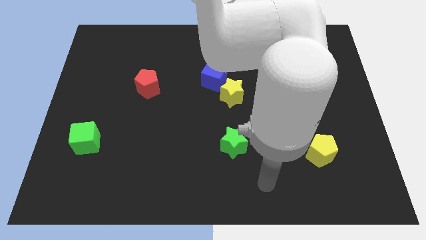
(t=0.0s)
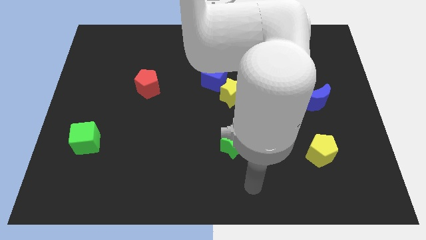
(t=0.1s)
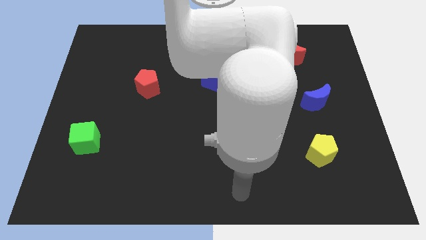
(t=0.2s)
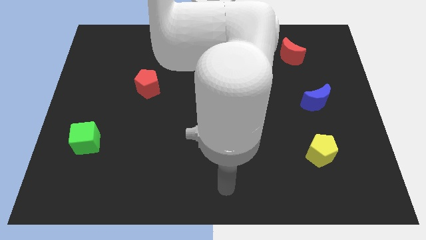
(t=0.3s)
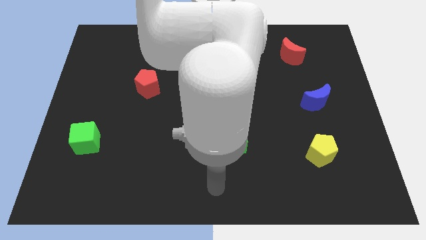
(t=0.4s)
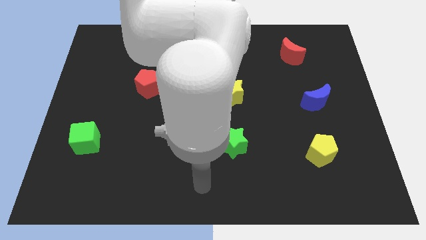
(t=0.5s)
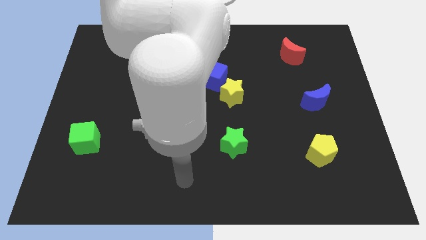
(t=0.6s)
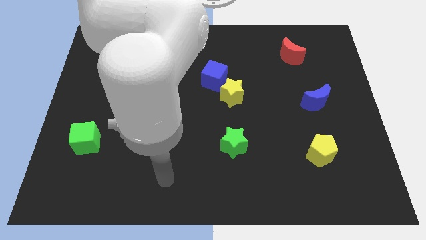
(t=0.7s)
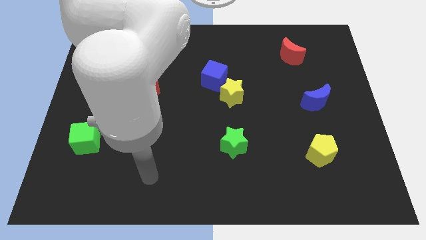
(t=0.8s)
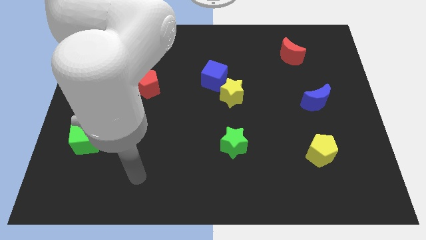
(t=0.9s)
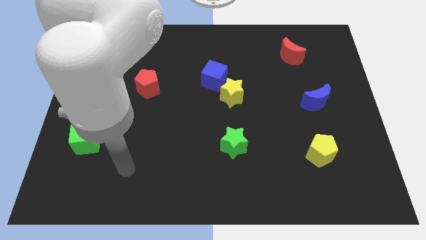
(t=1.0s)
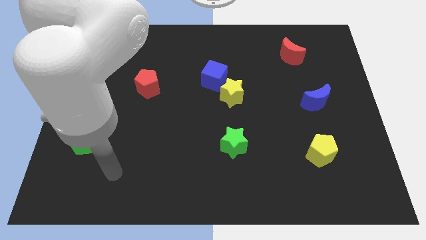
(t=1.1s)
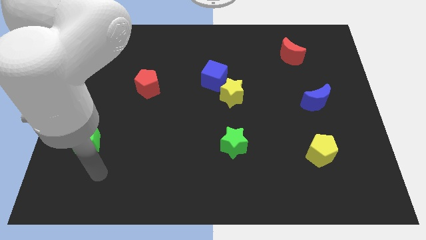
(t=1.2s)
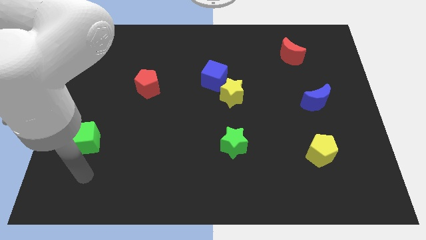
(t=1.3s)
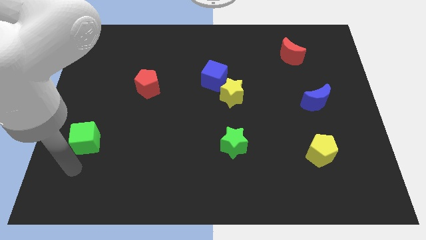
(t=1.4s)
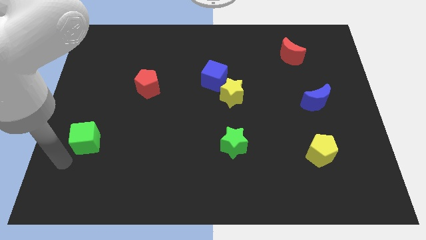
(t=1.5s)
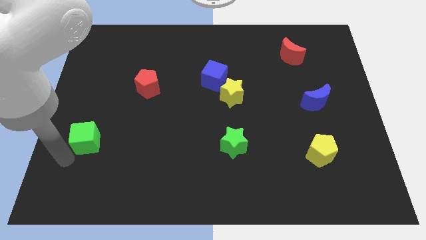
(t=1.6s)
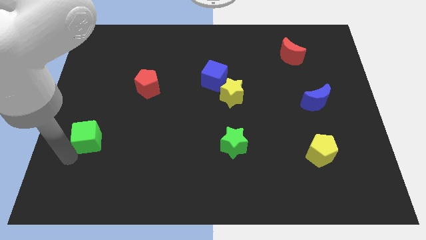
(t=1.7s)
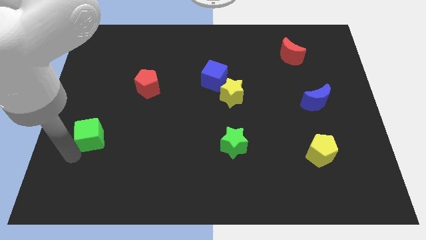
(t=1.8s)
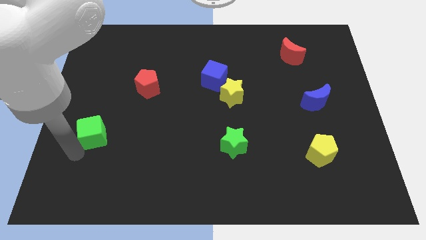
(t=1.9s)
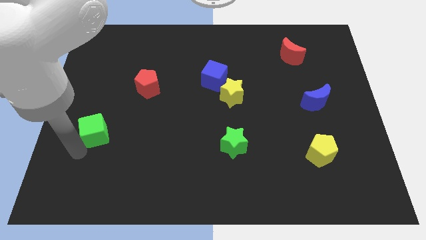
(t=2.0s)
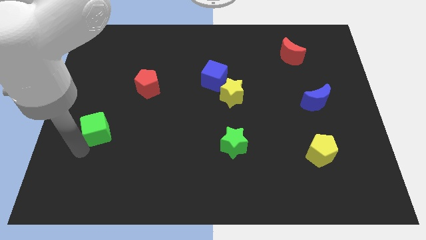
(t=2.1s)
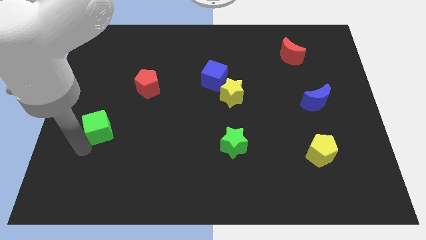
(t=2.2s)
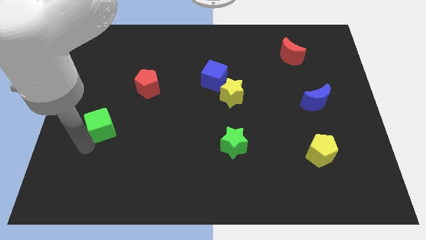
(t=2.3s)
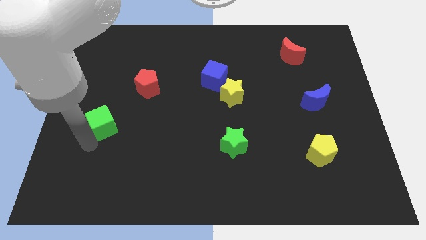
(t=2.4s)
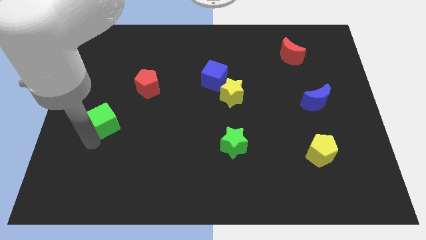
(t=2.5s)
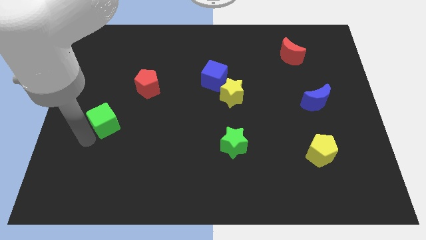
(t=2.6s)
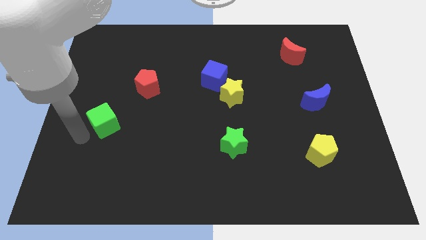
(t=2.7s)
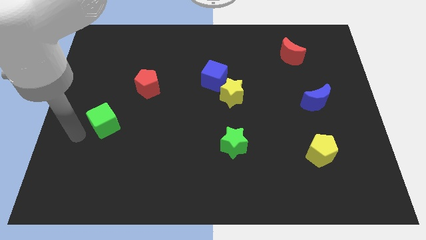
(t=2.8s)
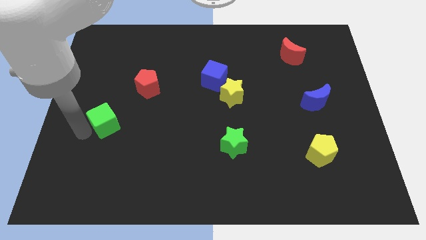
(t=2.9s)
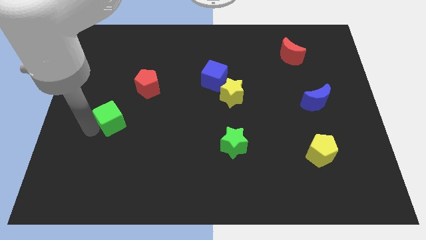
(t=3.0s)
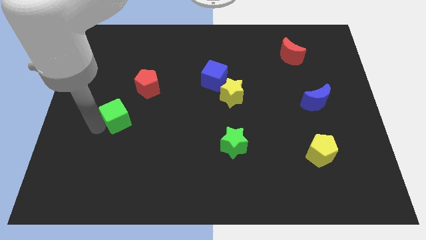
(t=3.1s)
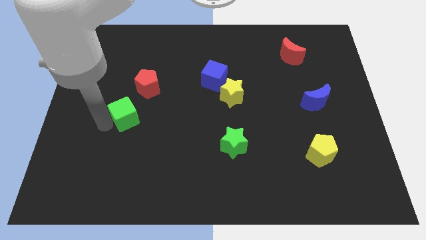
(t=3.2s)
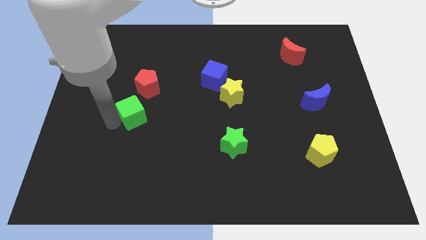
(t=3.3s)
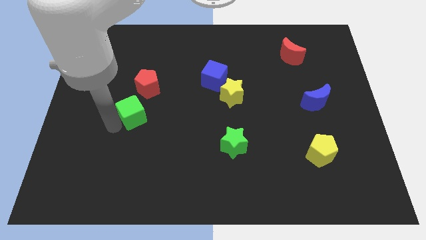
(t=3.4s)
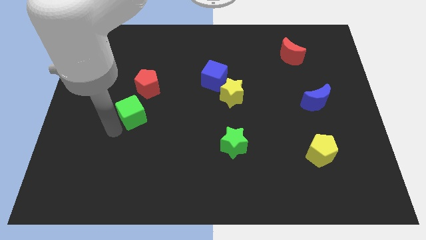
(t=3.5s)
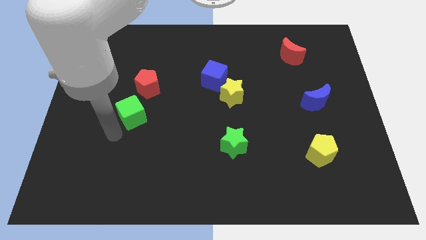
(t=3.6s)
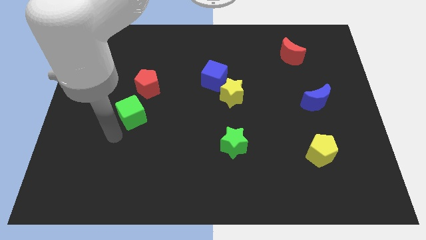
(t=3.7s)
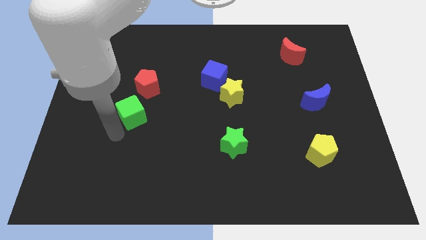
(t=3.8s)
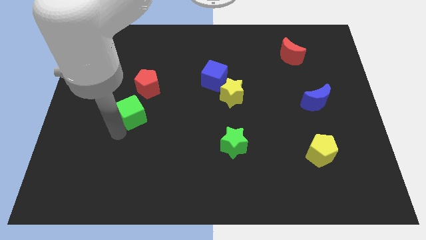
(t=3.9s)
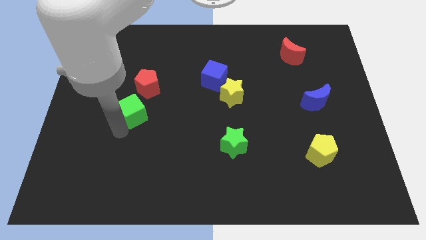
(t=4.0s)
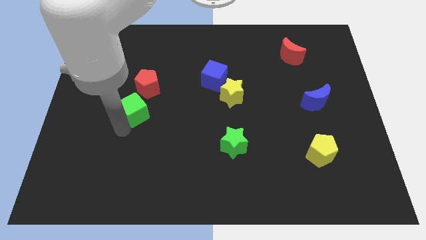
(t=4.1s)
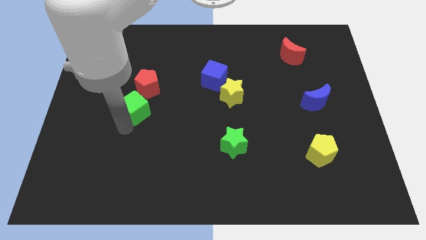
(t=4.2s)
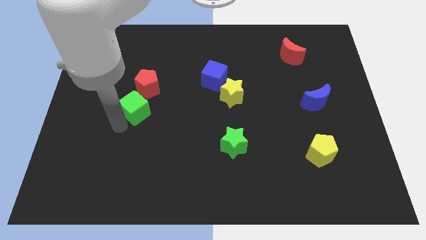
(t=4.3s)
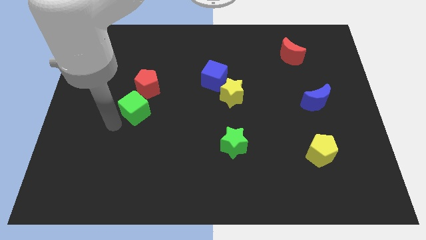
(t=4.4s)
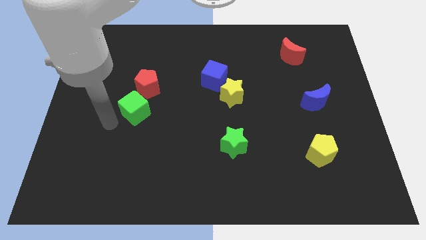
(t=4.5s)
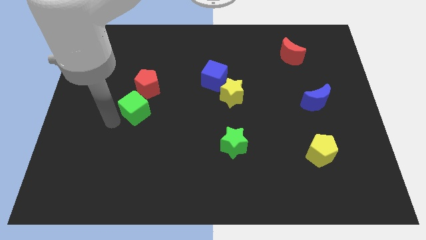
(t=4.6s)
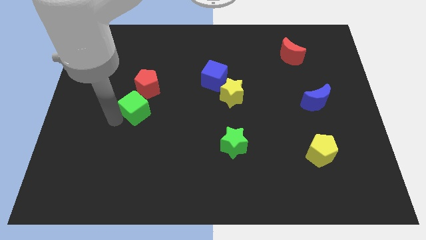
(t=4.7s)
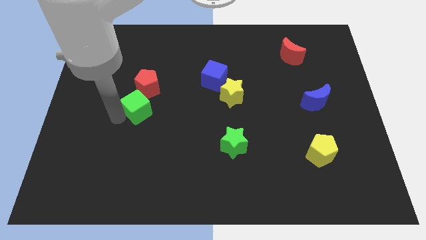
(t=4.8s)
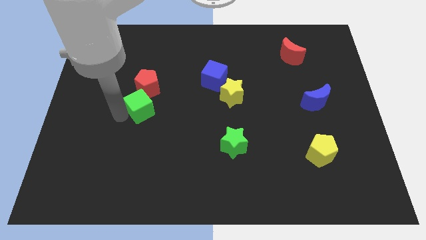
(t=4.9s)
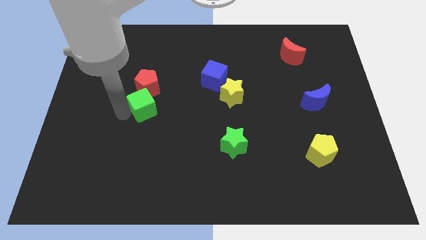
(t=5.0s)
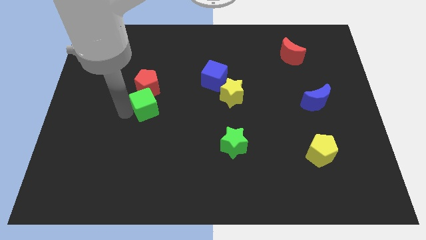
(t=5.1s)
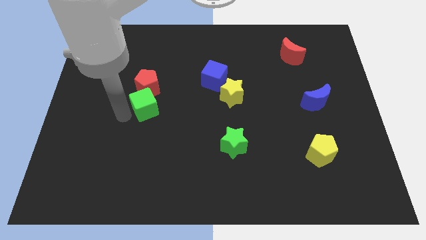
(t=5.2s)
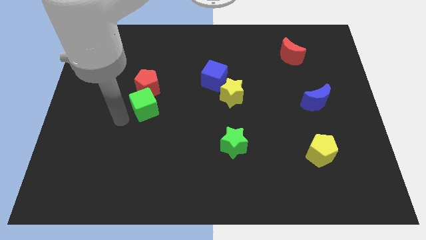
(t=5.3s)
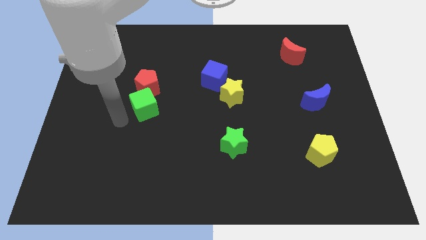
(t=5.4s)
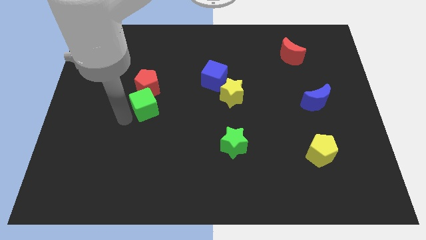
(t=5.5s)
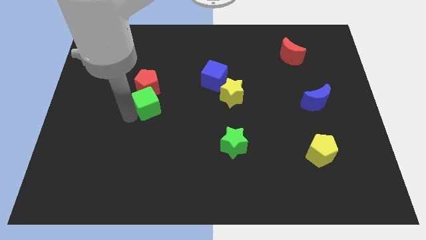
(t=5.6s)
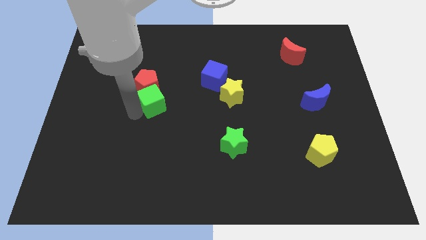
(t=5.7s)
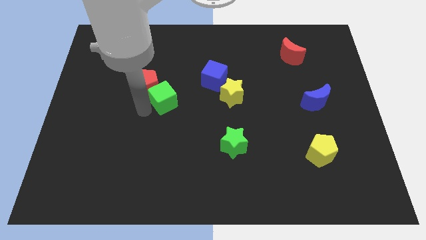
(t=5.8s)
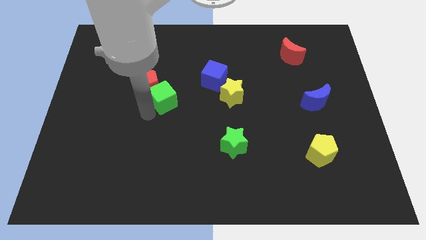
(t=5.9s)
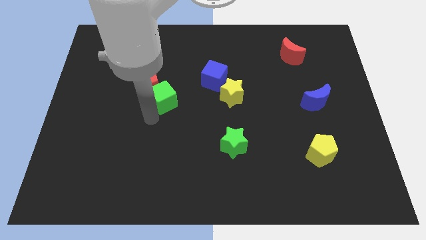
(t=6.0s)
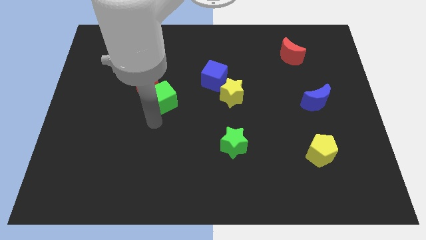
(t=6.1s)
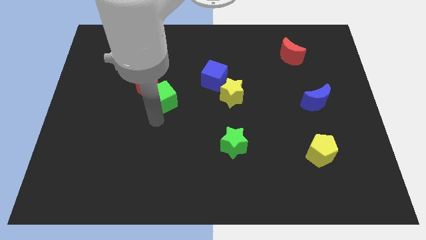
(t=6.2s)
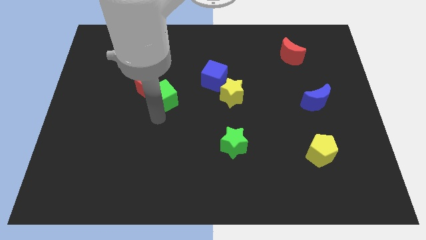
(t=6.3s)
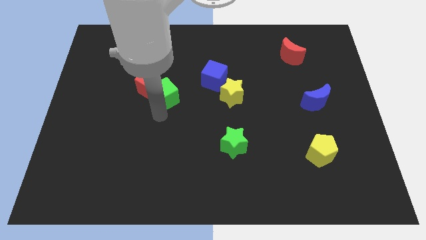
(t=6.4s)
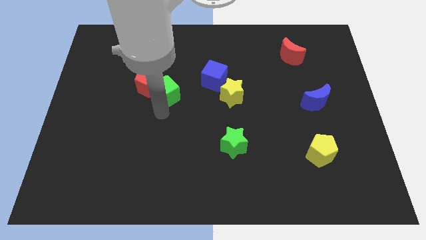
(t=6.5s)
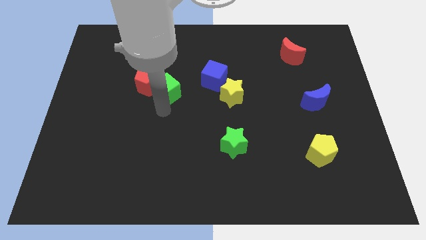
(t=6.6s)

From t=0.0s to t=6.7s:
slide the green cube just left of the blue cube

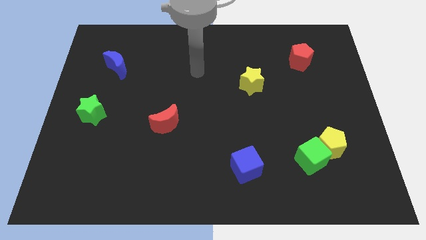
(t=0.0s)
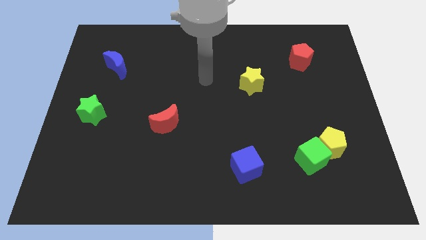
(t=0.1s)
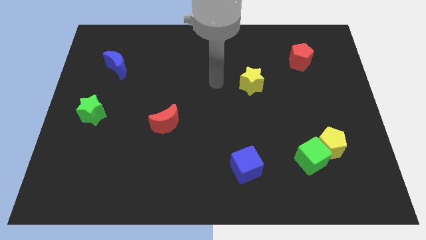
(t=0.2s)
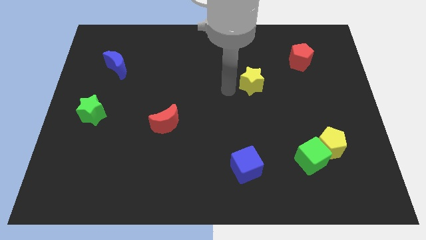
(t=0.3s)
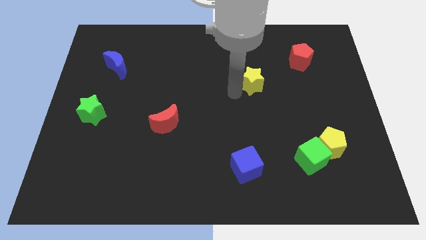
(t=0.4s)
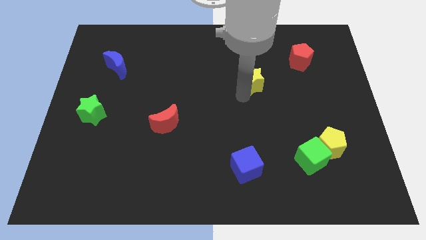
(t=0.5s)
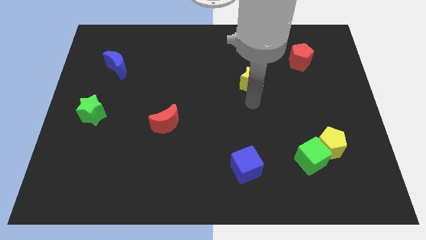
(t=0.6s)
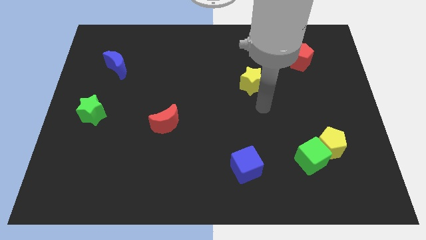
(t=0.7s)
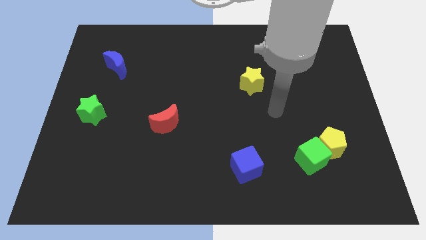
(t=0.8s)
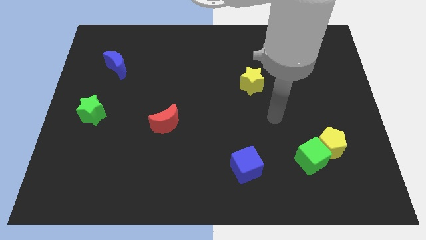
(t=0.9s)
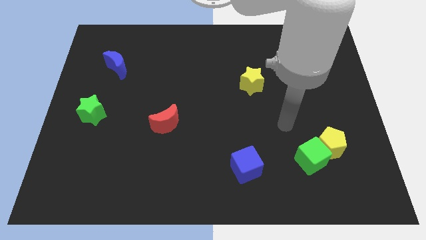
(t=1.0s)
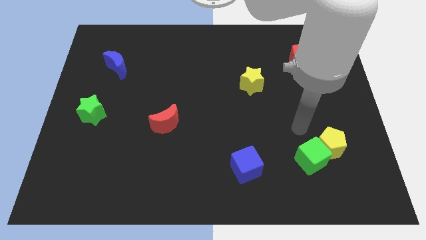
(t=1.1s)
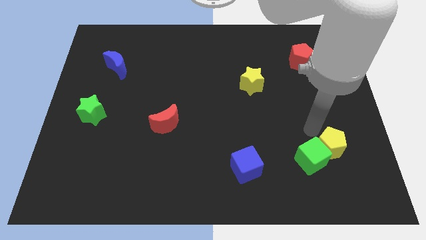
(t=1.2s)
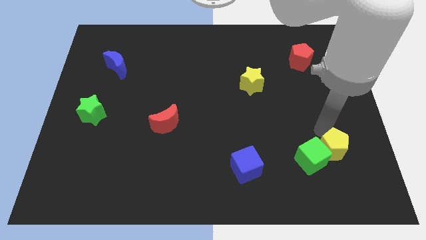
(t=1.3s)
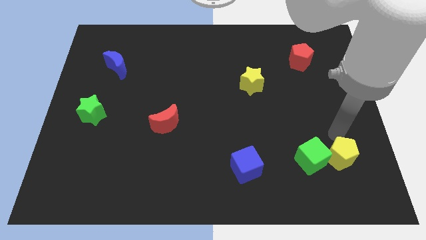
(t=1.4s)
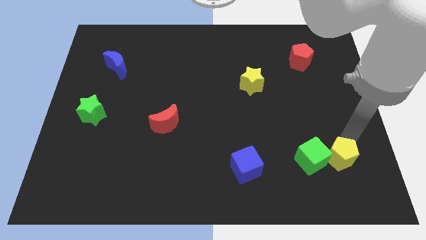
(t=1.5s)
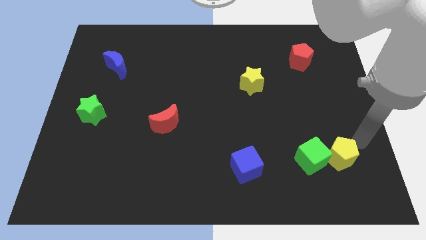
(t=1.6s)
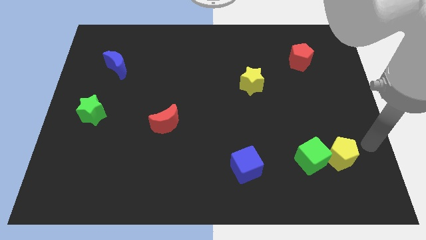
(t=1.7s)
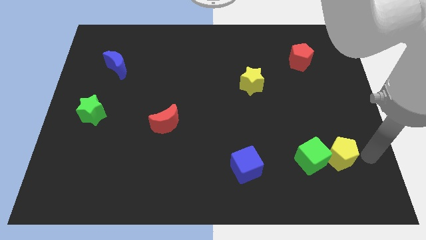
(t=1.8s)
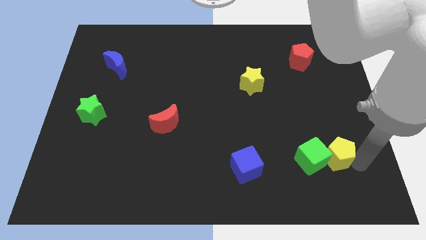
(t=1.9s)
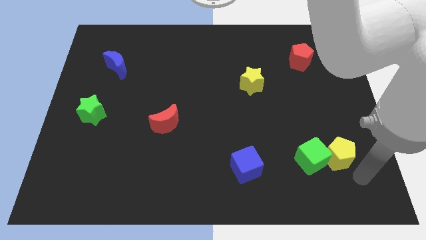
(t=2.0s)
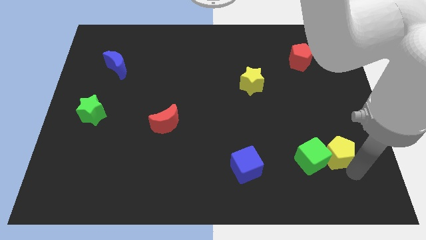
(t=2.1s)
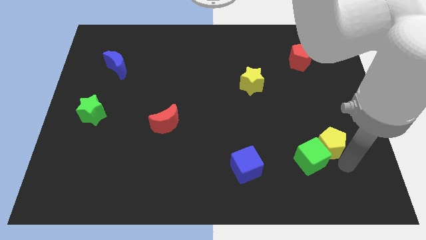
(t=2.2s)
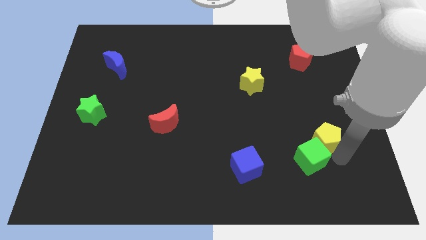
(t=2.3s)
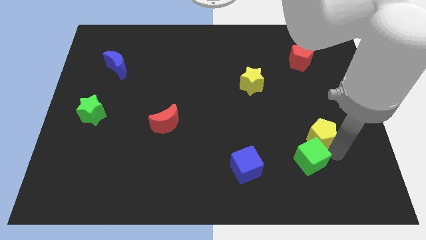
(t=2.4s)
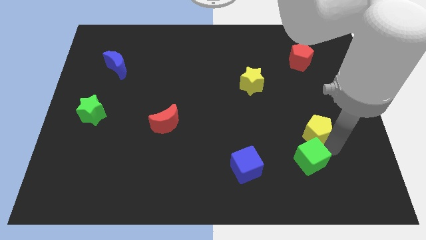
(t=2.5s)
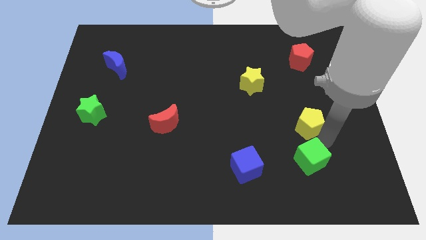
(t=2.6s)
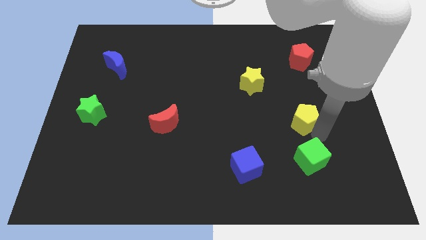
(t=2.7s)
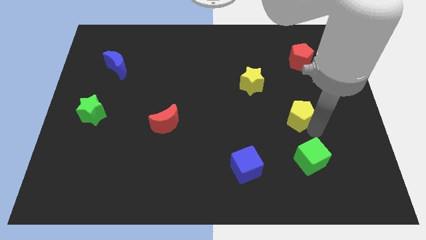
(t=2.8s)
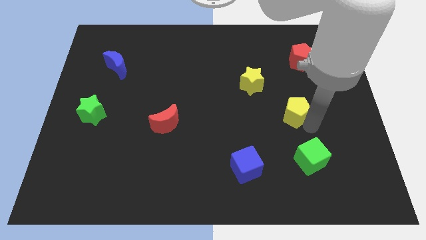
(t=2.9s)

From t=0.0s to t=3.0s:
put the yellow pentagon diagonally down and to the right of the yellow star
